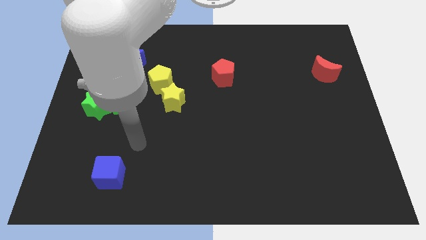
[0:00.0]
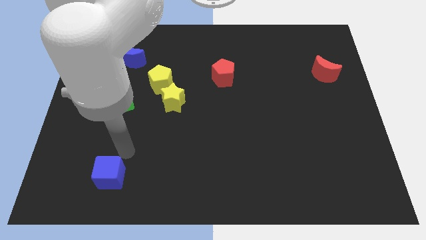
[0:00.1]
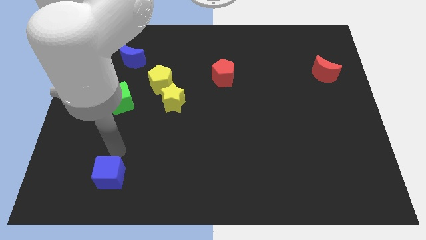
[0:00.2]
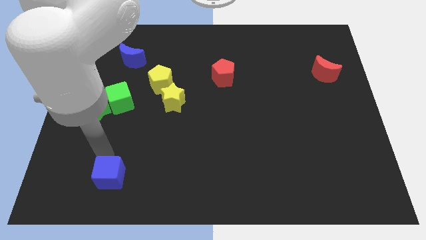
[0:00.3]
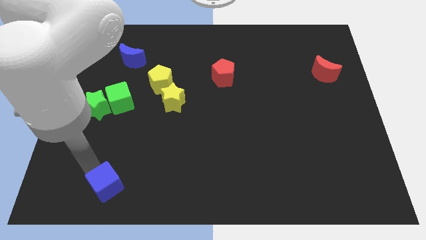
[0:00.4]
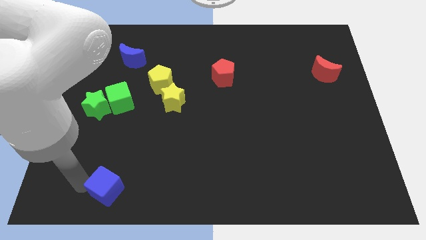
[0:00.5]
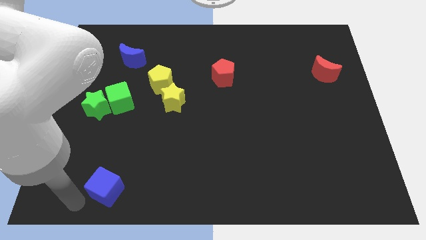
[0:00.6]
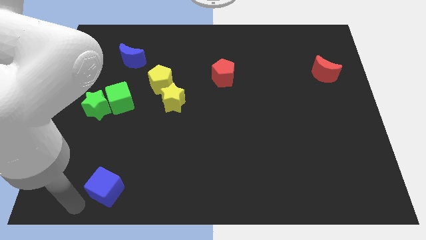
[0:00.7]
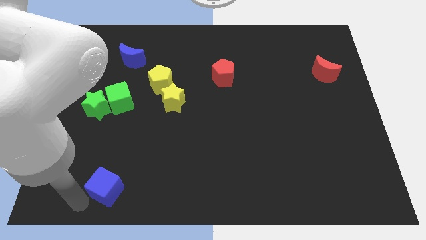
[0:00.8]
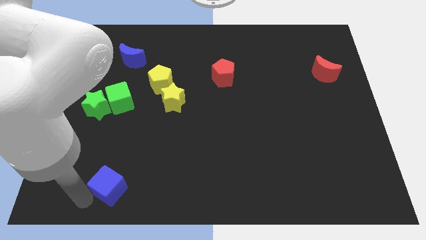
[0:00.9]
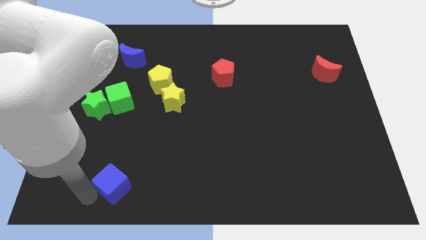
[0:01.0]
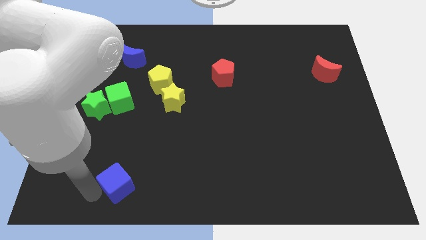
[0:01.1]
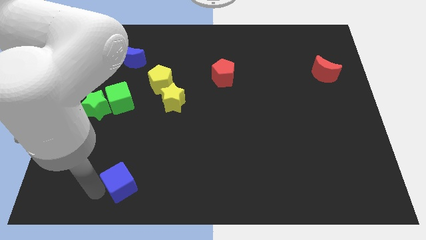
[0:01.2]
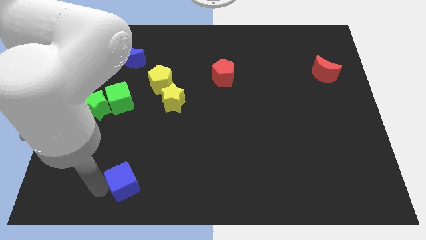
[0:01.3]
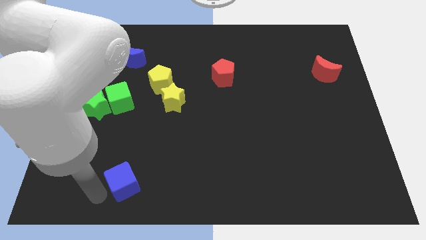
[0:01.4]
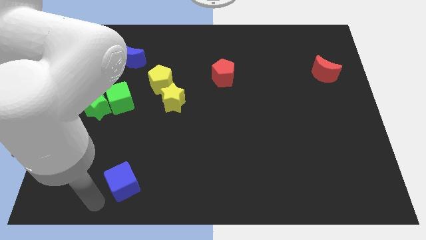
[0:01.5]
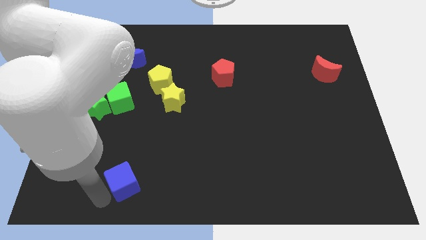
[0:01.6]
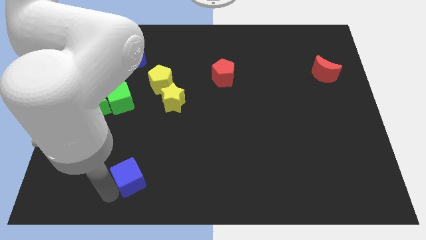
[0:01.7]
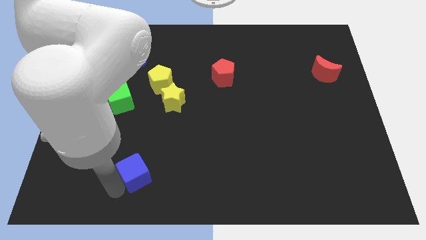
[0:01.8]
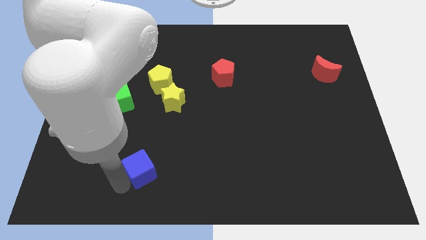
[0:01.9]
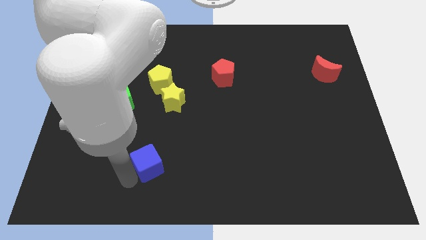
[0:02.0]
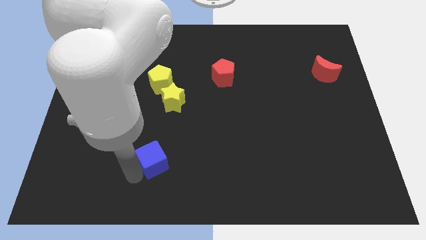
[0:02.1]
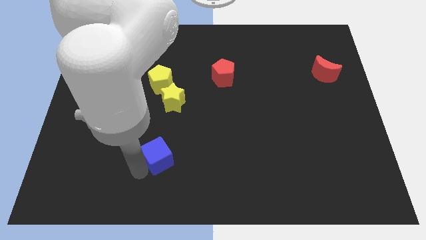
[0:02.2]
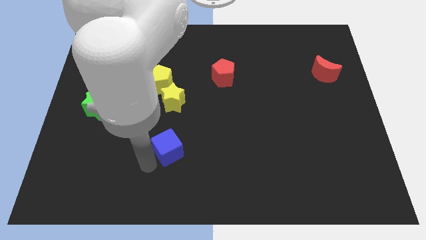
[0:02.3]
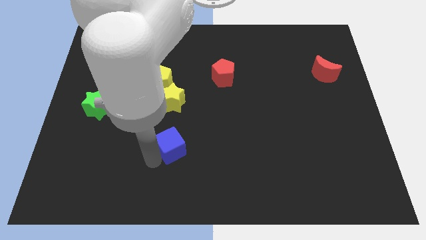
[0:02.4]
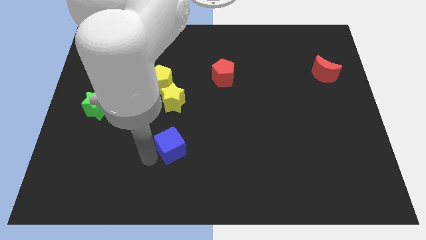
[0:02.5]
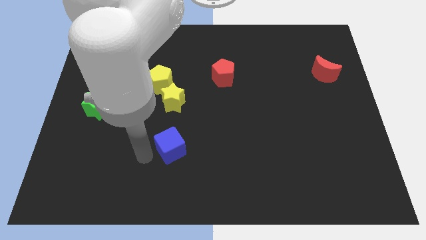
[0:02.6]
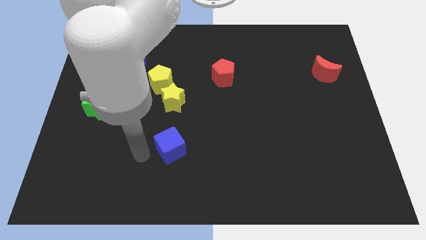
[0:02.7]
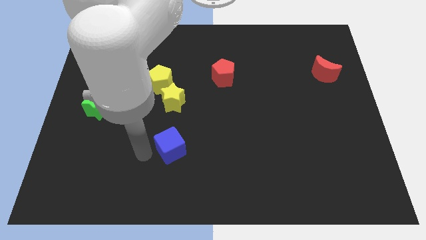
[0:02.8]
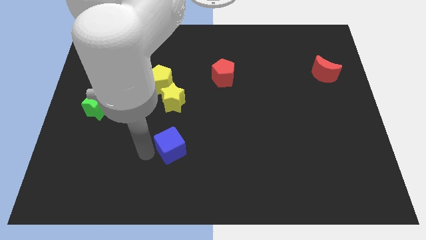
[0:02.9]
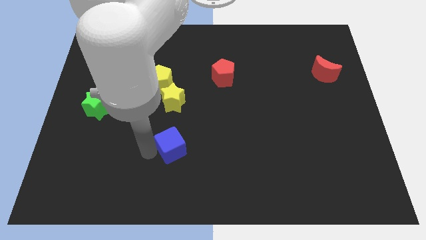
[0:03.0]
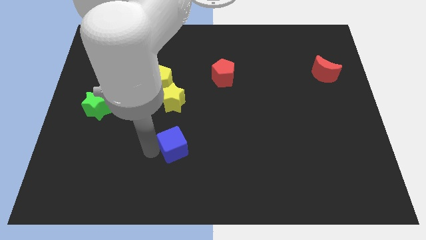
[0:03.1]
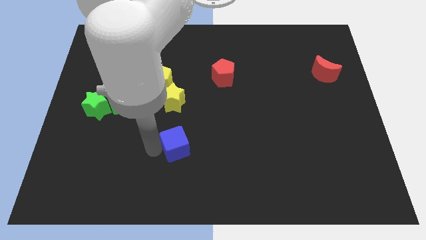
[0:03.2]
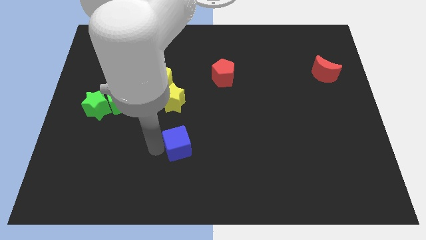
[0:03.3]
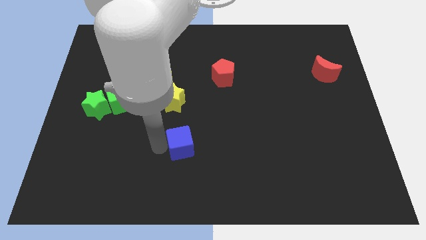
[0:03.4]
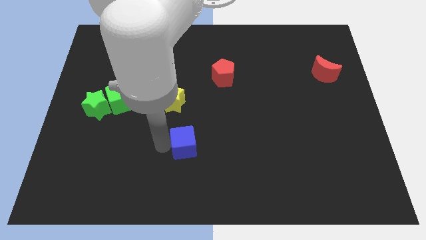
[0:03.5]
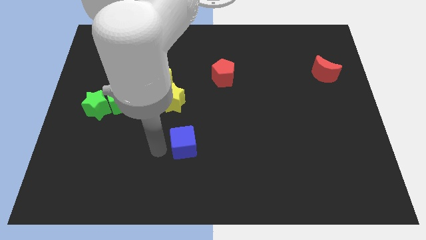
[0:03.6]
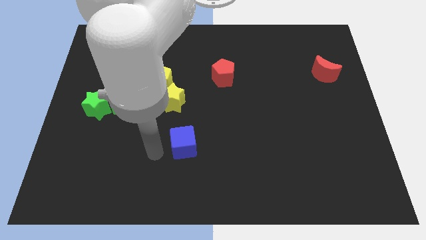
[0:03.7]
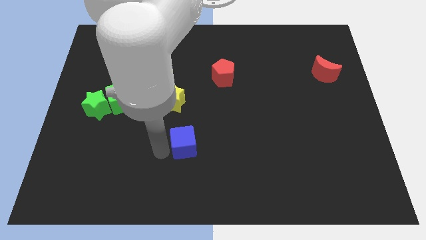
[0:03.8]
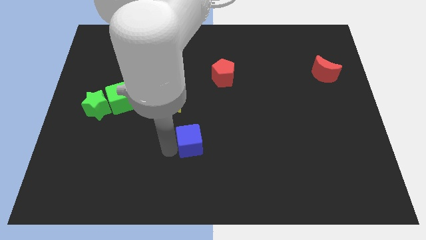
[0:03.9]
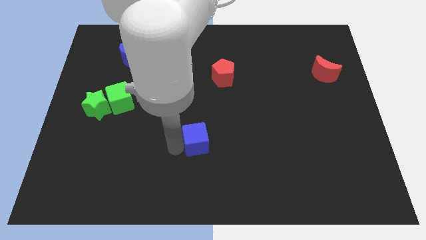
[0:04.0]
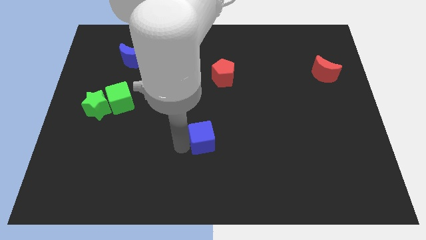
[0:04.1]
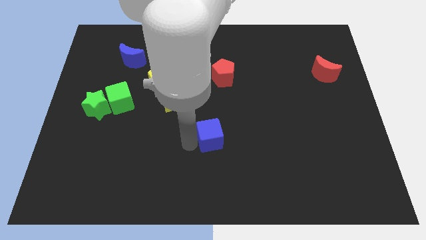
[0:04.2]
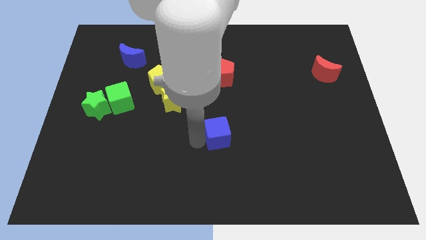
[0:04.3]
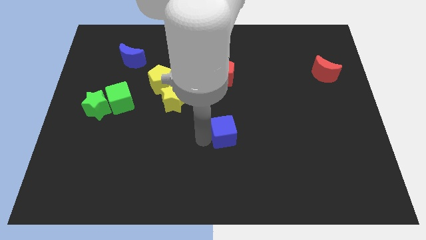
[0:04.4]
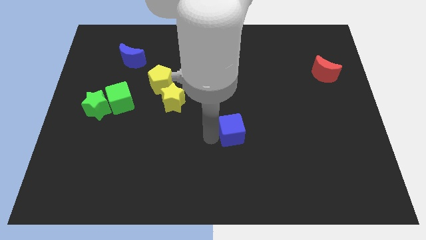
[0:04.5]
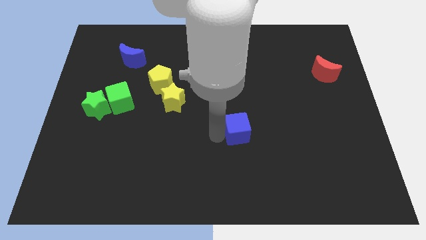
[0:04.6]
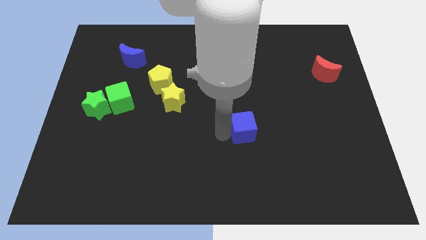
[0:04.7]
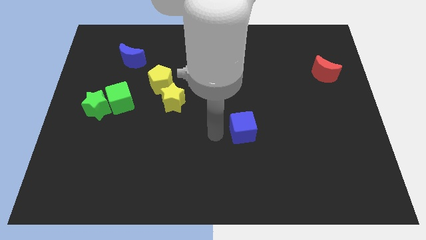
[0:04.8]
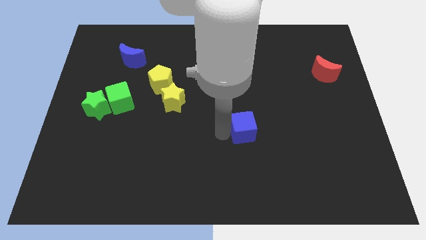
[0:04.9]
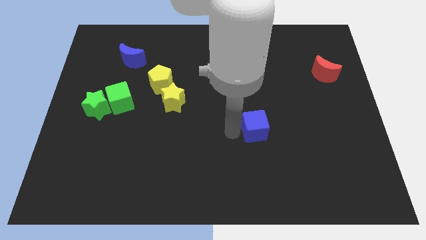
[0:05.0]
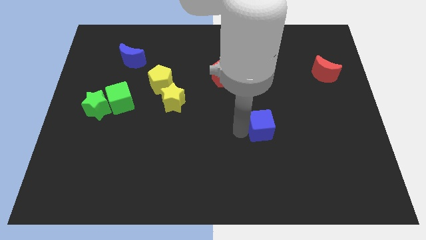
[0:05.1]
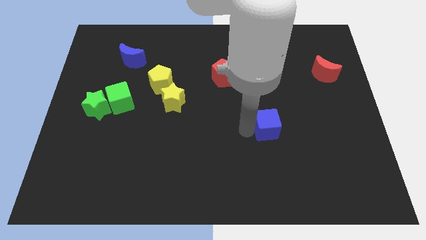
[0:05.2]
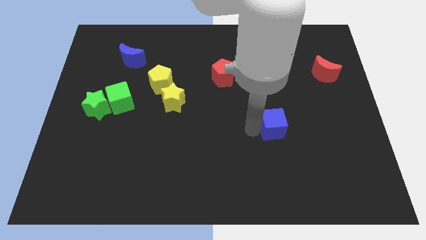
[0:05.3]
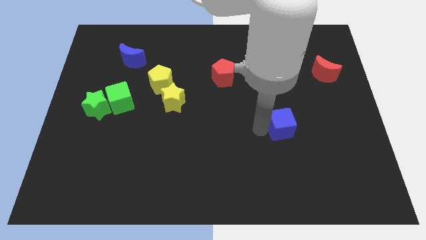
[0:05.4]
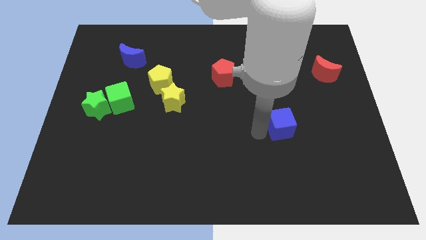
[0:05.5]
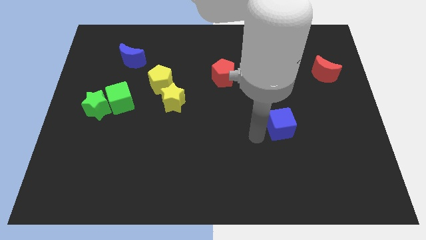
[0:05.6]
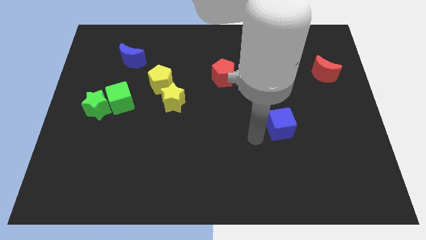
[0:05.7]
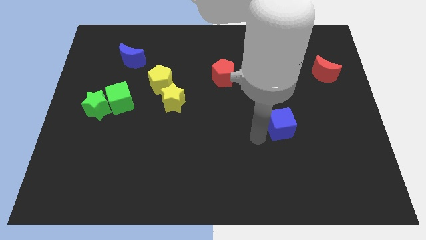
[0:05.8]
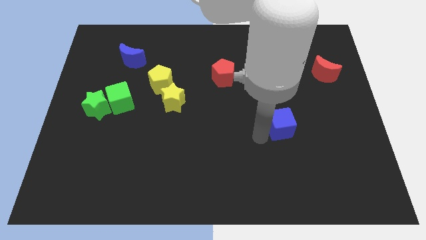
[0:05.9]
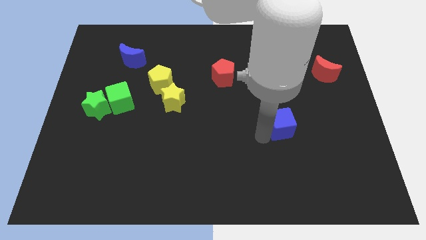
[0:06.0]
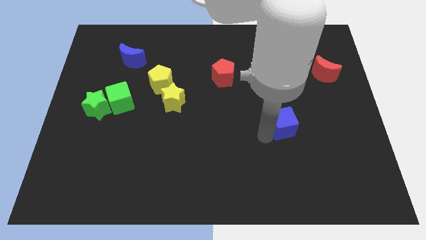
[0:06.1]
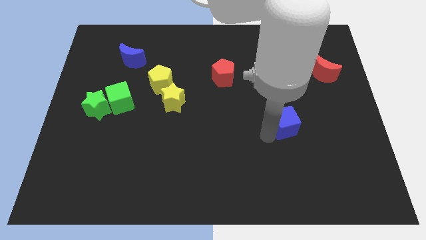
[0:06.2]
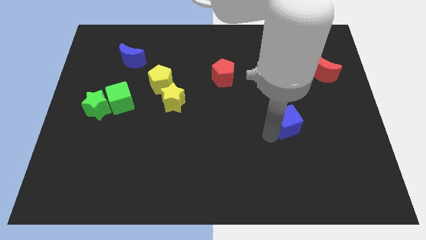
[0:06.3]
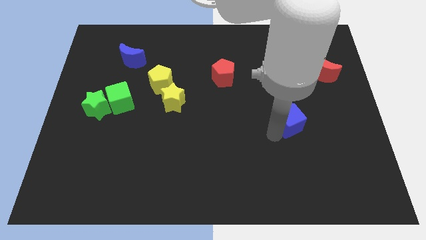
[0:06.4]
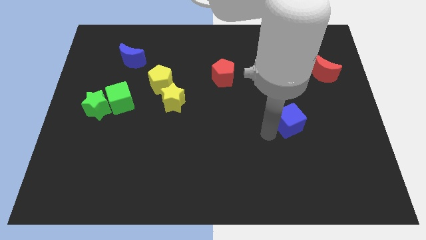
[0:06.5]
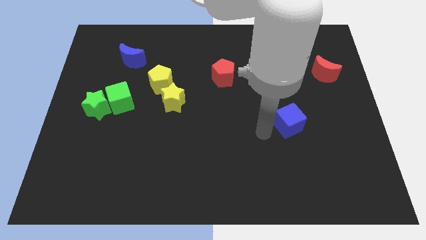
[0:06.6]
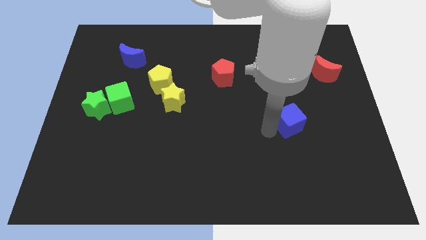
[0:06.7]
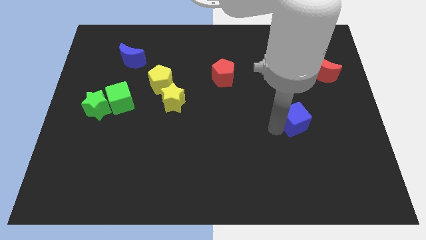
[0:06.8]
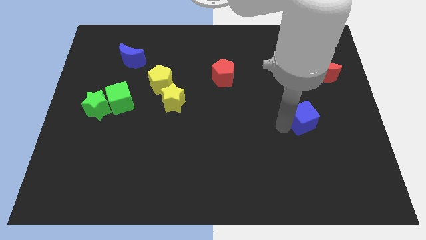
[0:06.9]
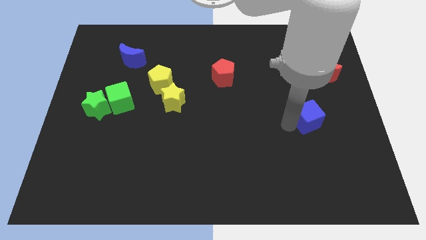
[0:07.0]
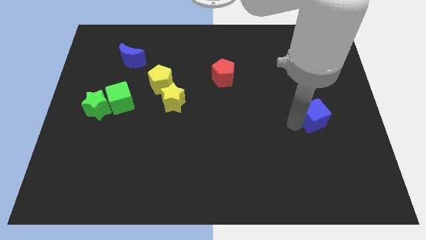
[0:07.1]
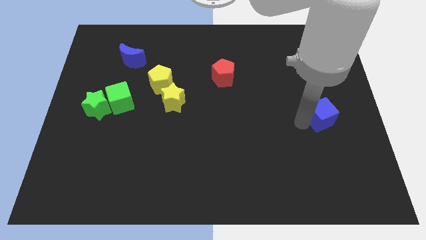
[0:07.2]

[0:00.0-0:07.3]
move the blue cube to the bottom side of the red moon
